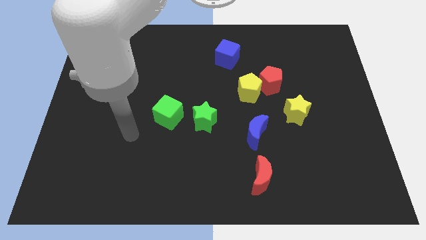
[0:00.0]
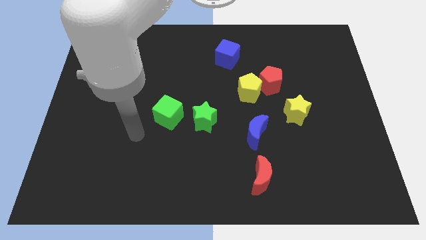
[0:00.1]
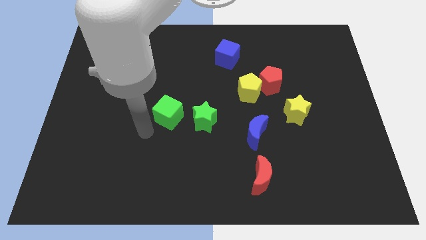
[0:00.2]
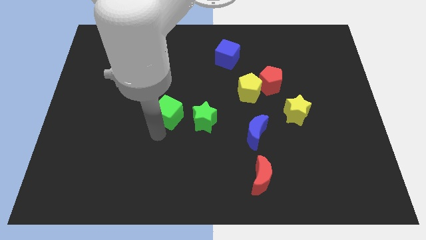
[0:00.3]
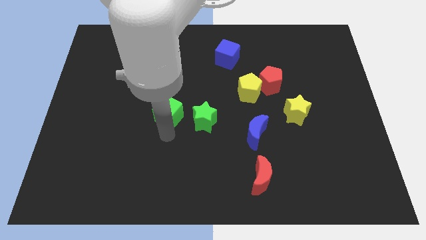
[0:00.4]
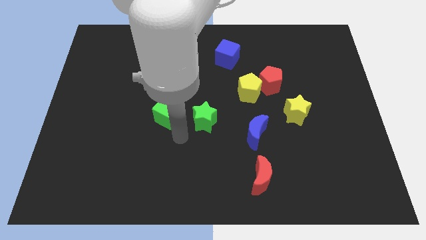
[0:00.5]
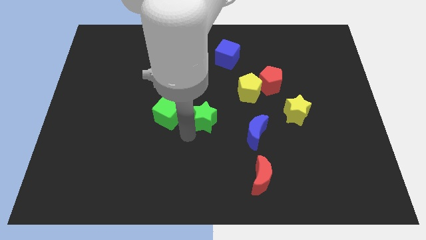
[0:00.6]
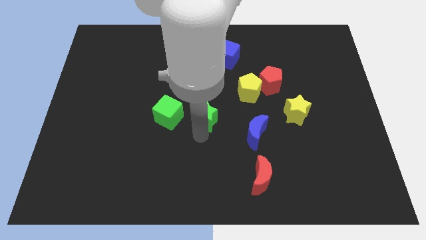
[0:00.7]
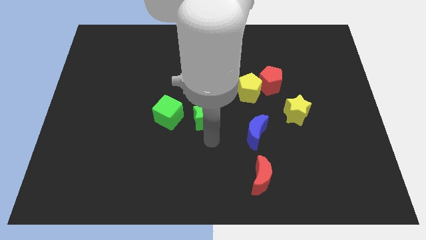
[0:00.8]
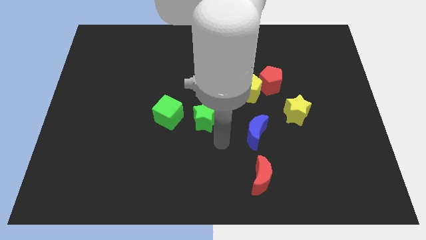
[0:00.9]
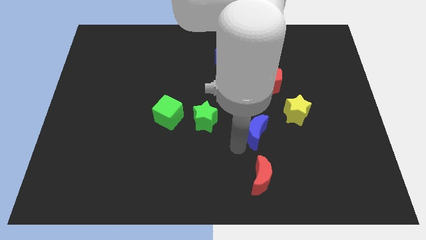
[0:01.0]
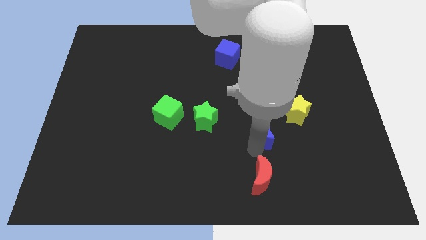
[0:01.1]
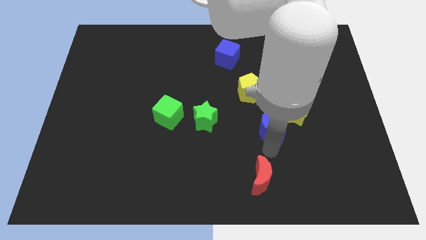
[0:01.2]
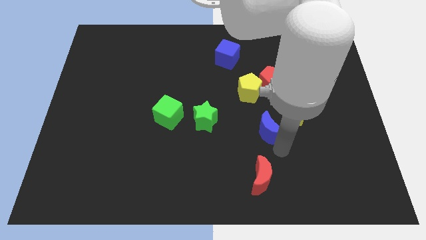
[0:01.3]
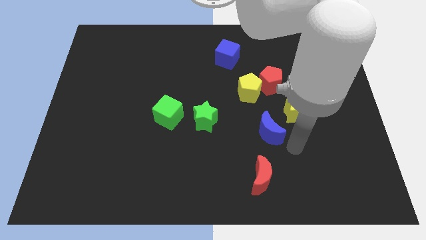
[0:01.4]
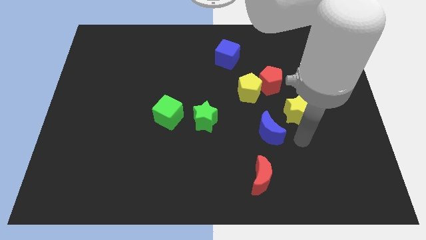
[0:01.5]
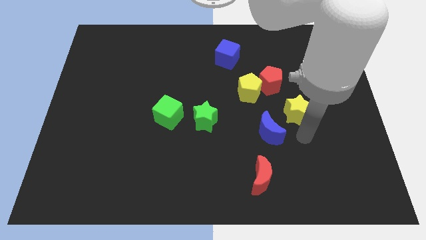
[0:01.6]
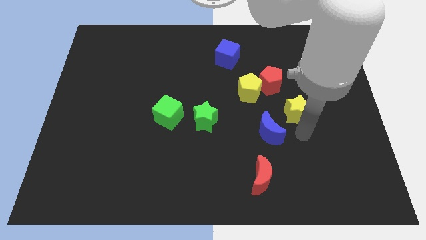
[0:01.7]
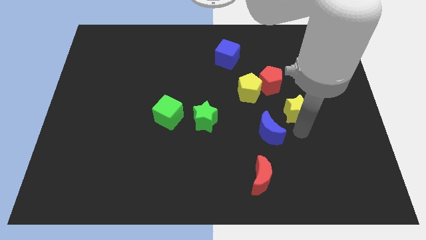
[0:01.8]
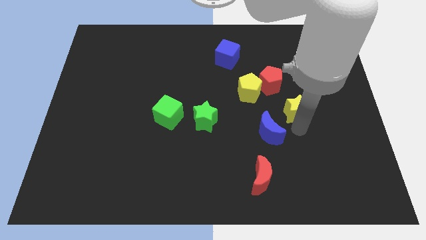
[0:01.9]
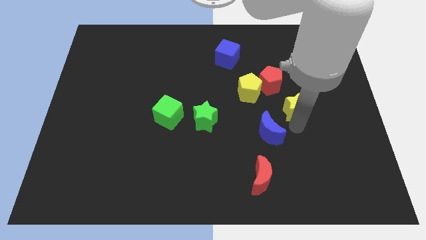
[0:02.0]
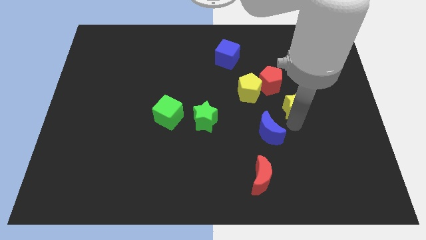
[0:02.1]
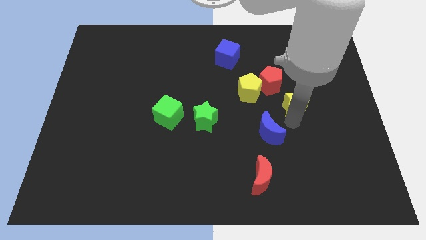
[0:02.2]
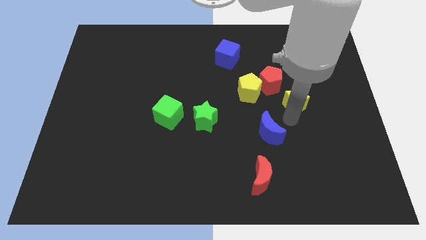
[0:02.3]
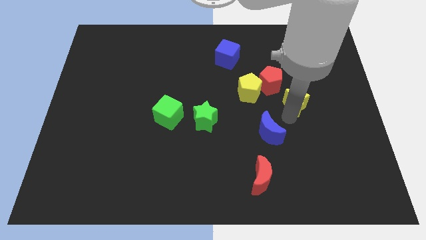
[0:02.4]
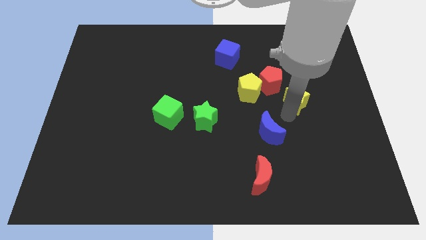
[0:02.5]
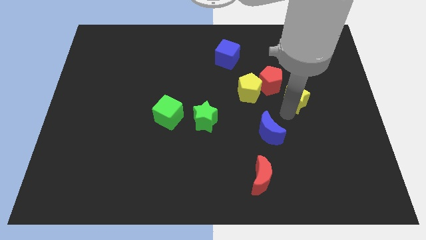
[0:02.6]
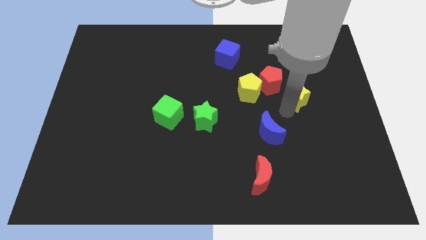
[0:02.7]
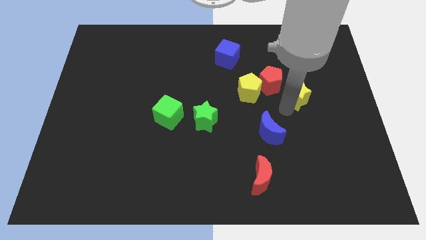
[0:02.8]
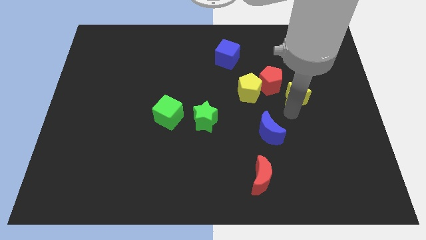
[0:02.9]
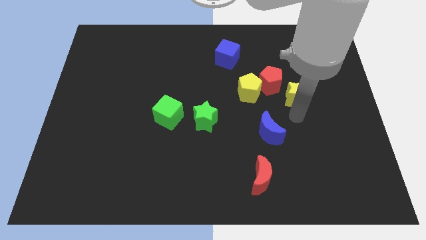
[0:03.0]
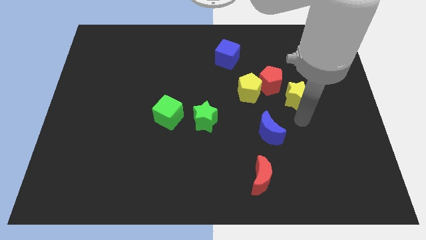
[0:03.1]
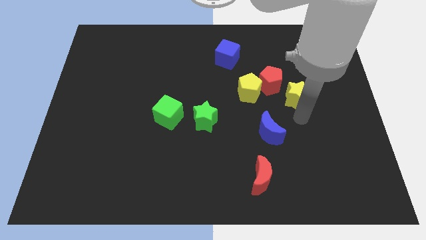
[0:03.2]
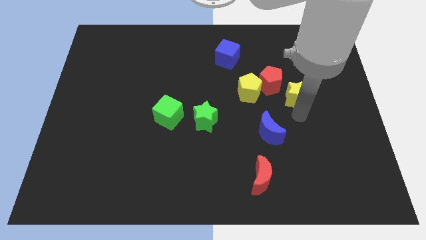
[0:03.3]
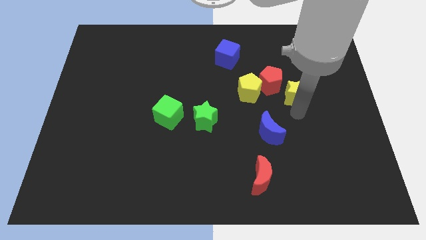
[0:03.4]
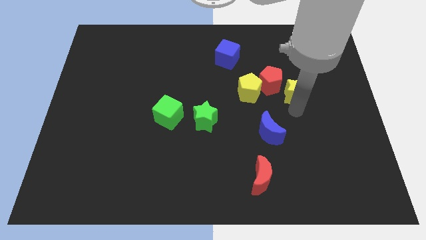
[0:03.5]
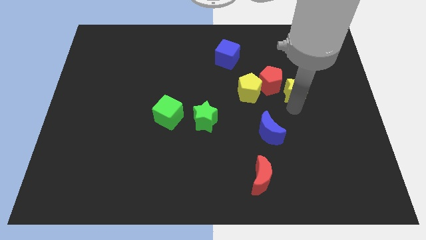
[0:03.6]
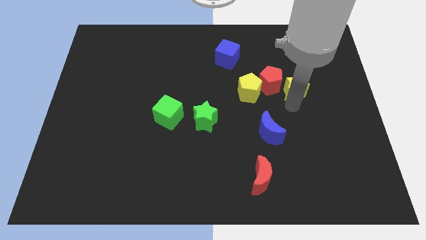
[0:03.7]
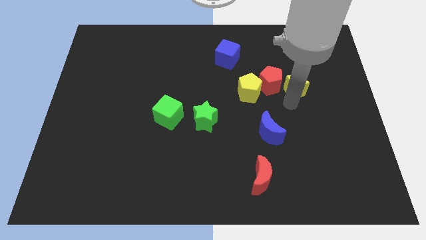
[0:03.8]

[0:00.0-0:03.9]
slightly push the yellow star upwards

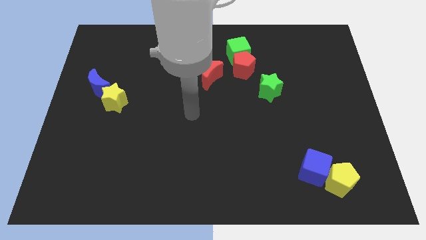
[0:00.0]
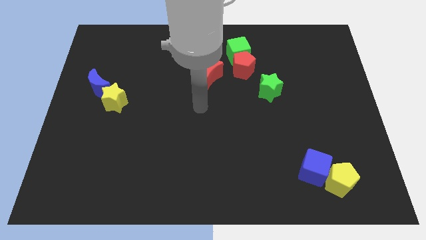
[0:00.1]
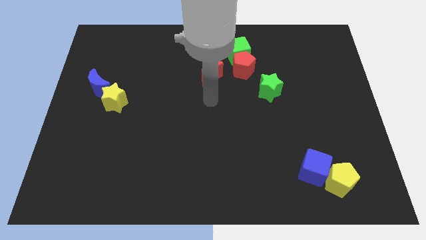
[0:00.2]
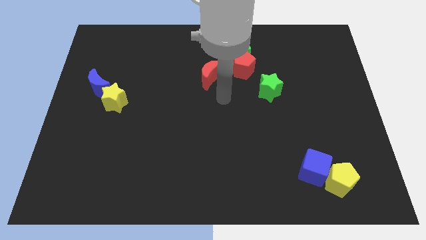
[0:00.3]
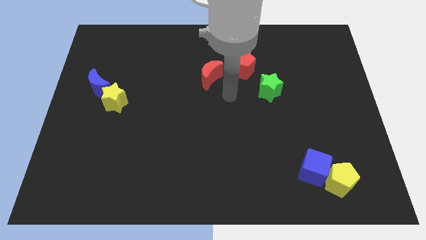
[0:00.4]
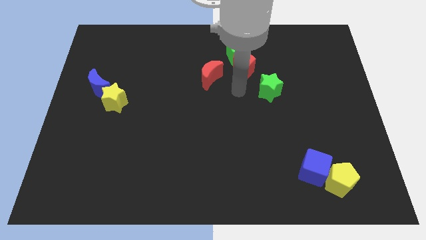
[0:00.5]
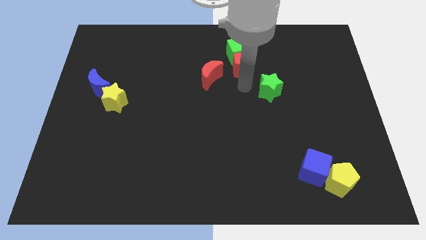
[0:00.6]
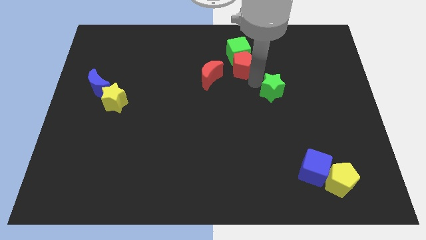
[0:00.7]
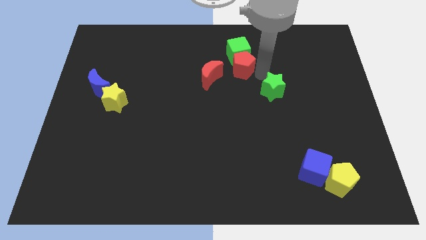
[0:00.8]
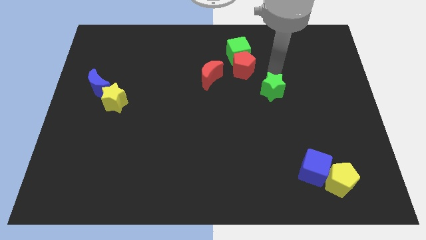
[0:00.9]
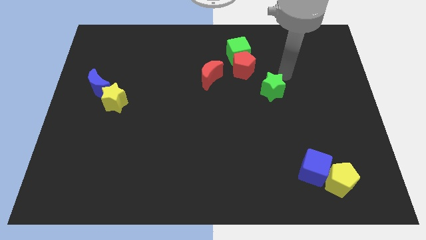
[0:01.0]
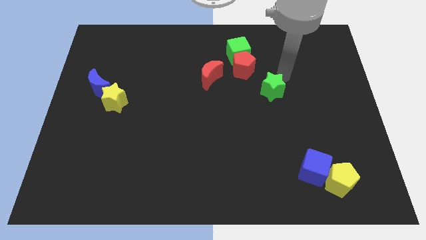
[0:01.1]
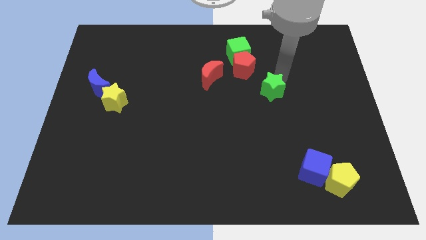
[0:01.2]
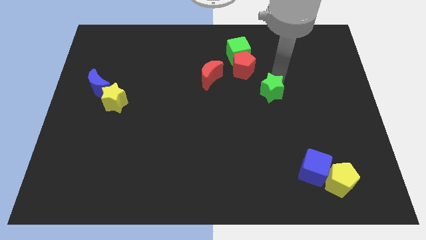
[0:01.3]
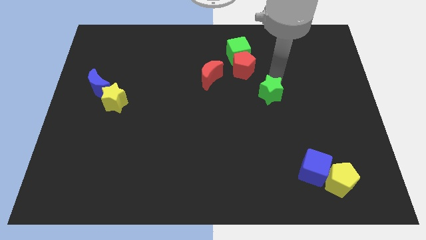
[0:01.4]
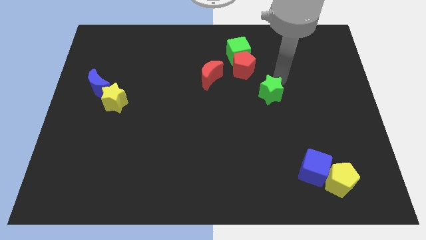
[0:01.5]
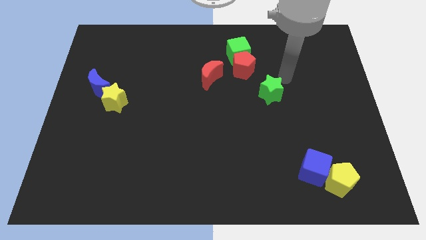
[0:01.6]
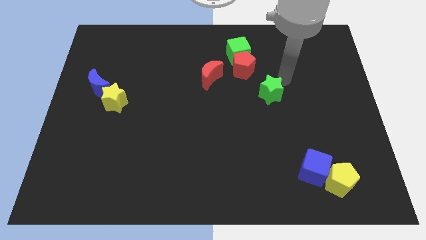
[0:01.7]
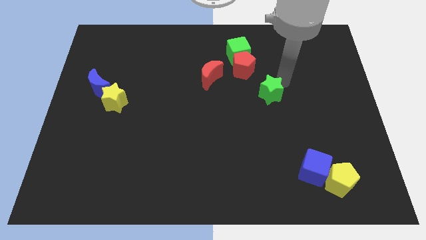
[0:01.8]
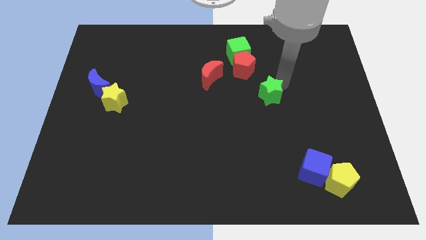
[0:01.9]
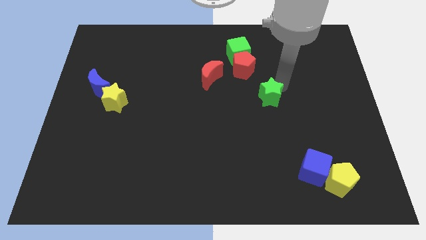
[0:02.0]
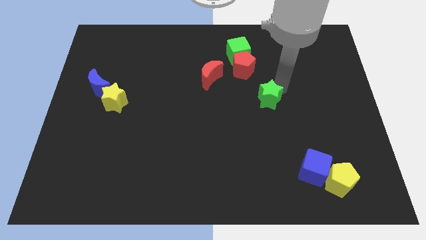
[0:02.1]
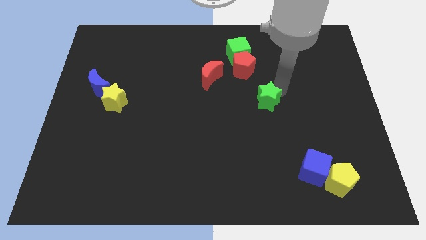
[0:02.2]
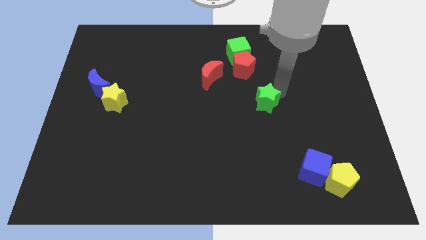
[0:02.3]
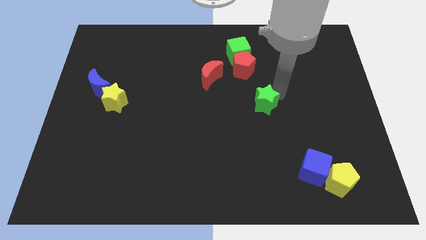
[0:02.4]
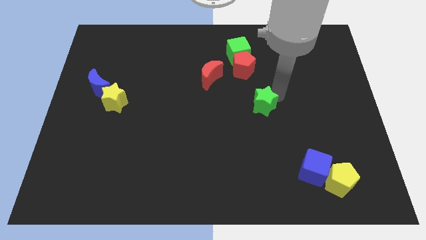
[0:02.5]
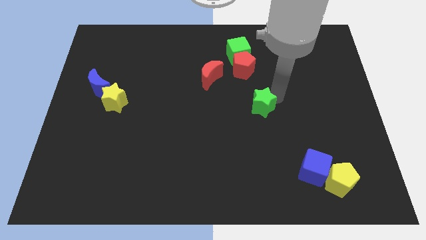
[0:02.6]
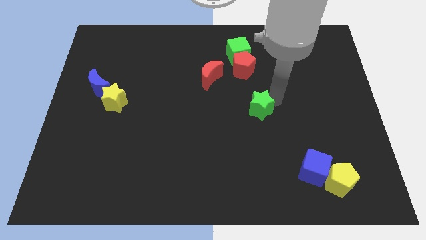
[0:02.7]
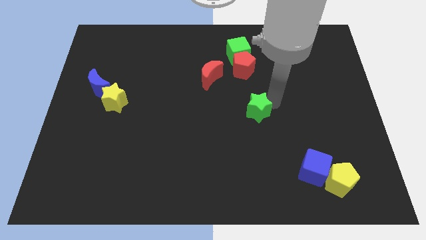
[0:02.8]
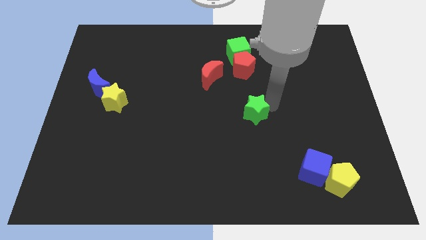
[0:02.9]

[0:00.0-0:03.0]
slide the green star diagonally down and to the left a little

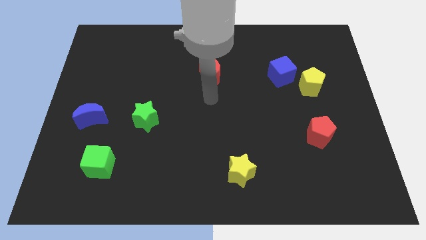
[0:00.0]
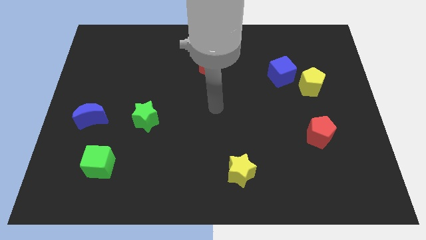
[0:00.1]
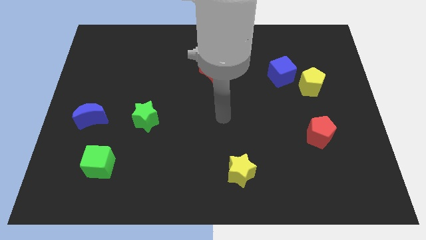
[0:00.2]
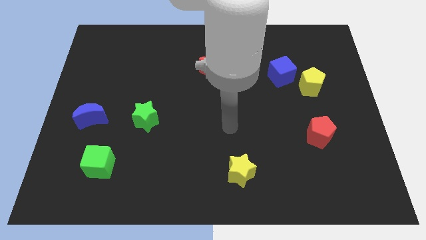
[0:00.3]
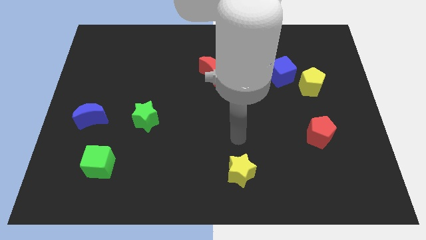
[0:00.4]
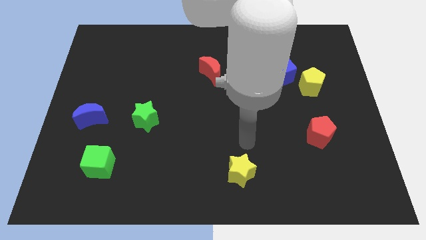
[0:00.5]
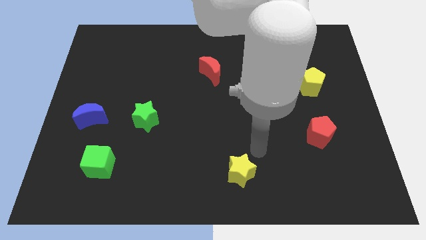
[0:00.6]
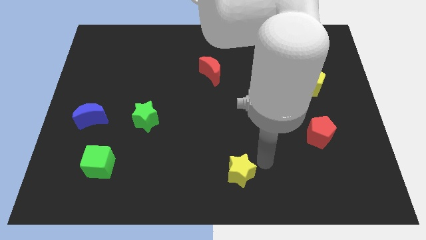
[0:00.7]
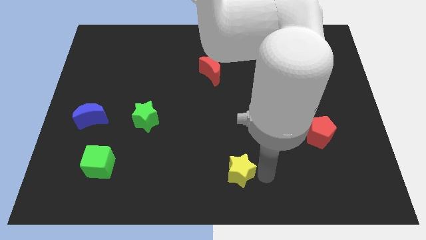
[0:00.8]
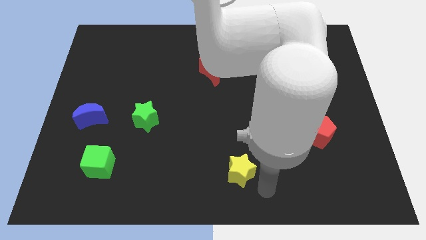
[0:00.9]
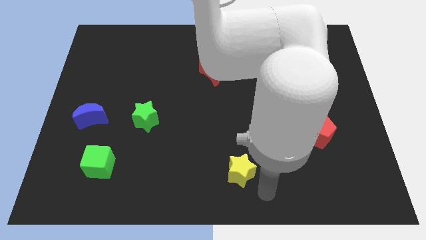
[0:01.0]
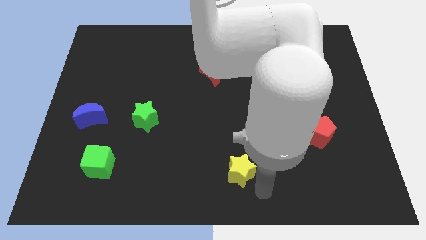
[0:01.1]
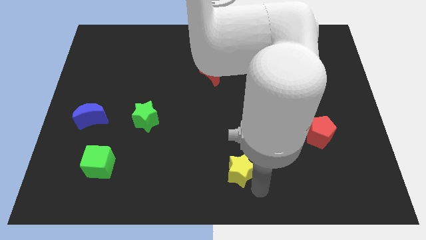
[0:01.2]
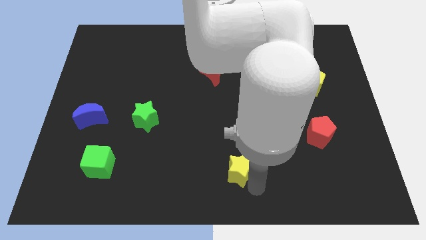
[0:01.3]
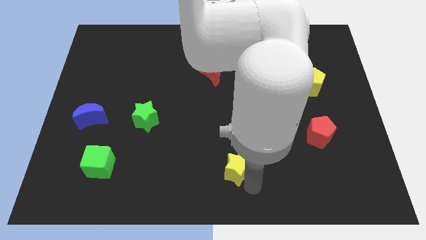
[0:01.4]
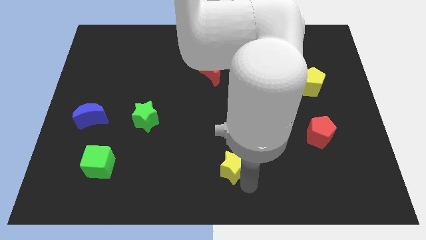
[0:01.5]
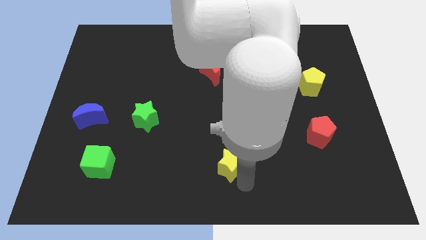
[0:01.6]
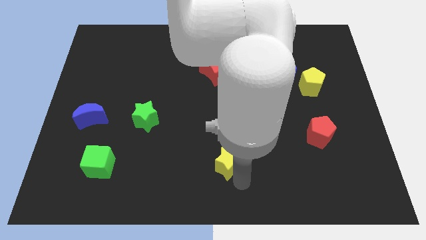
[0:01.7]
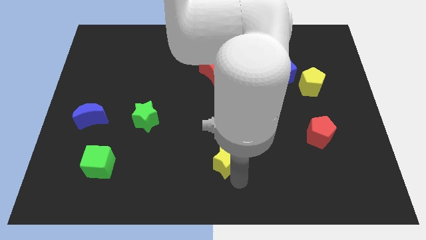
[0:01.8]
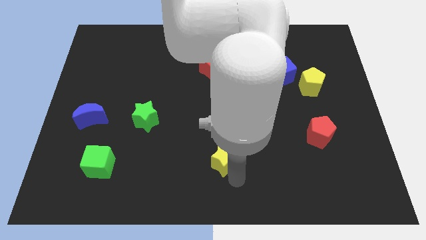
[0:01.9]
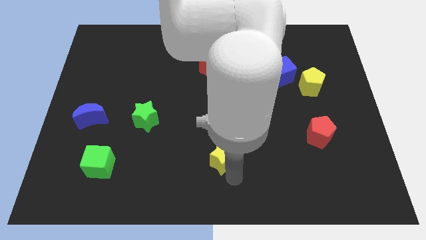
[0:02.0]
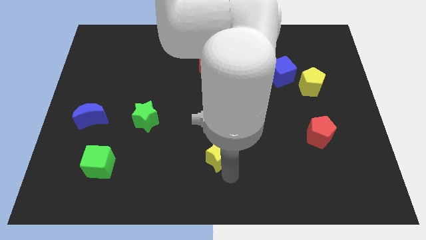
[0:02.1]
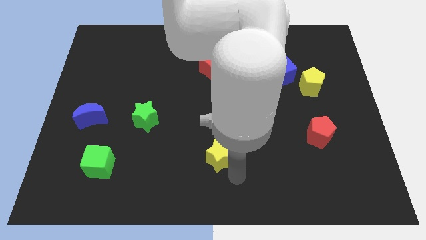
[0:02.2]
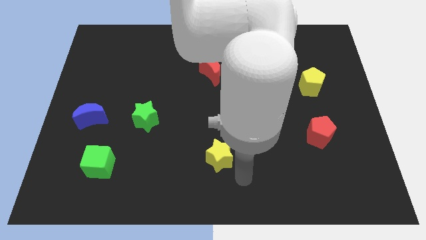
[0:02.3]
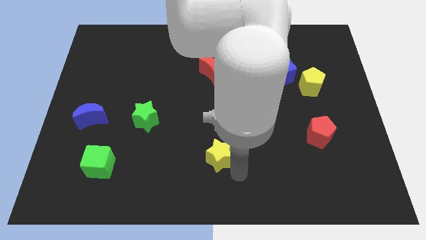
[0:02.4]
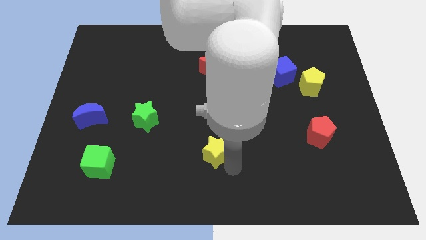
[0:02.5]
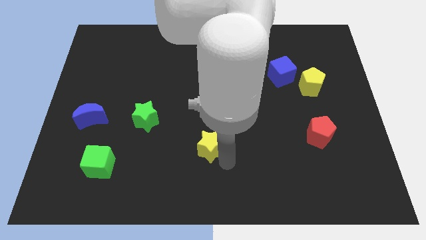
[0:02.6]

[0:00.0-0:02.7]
slide the yellow star a bit upwards and left
